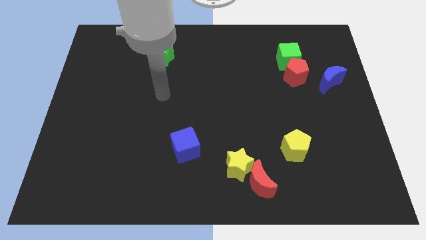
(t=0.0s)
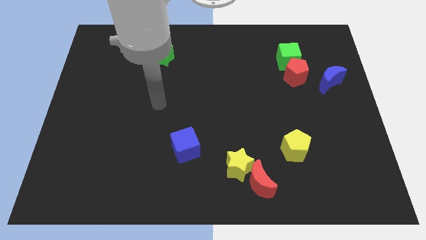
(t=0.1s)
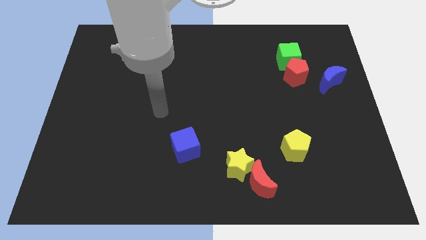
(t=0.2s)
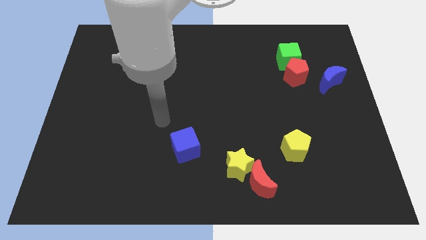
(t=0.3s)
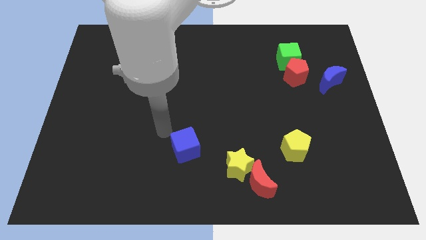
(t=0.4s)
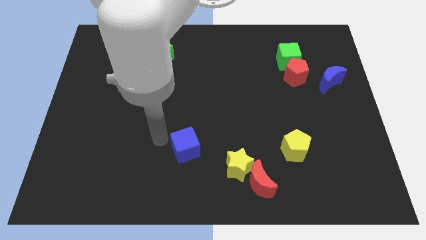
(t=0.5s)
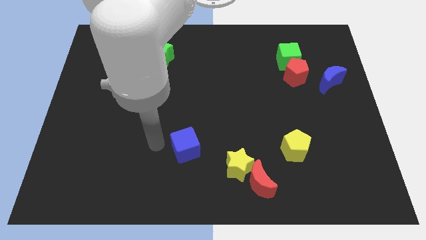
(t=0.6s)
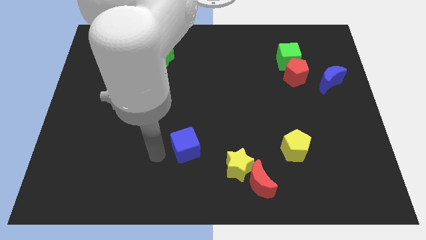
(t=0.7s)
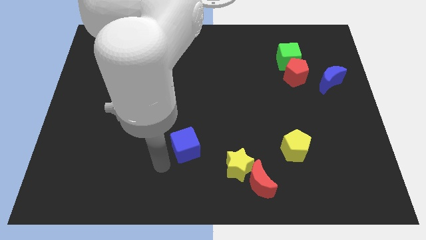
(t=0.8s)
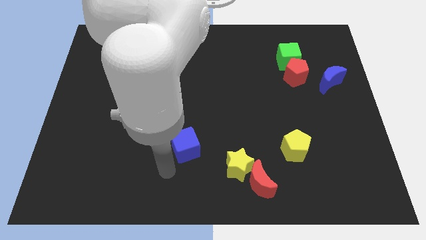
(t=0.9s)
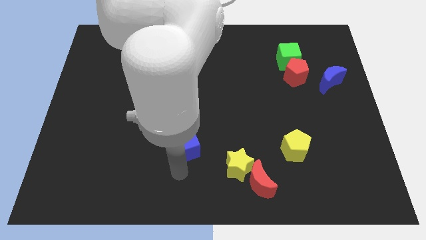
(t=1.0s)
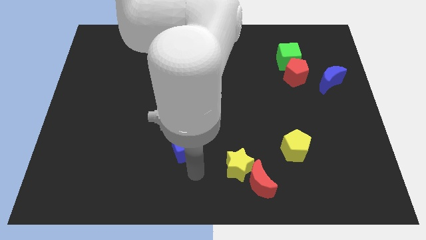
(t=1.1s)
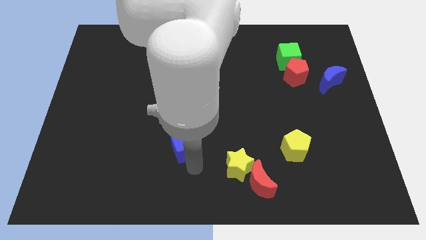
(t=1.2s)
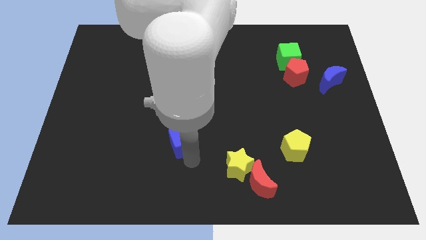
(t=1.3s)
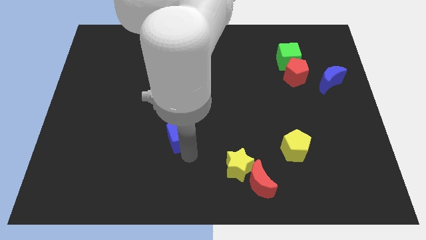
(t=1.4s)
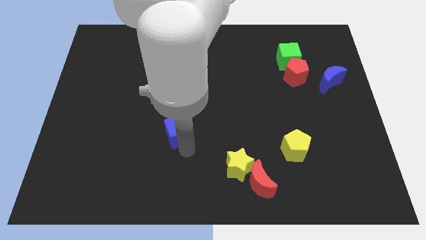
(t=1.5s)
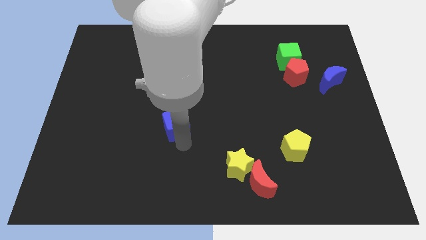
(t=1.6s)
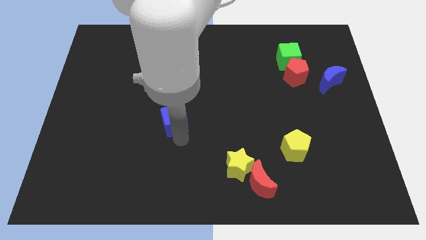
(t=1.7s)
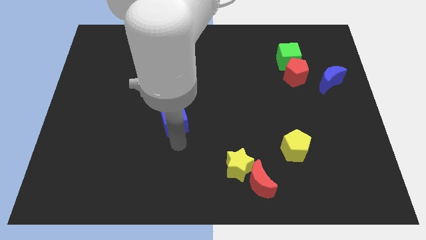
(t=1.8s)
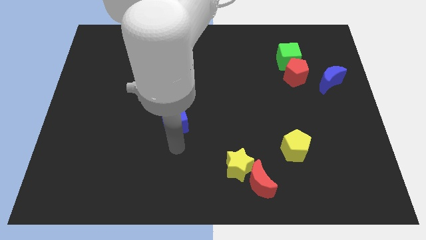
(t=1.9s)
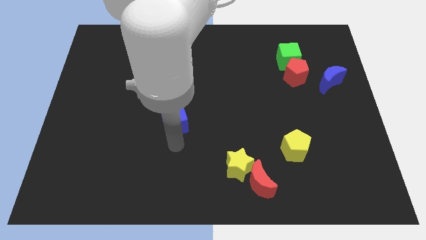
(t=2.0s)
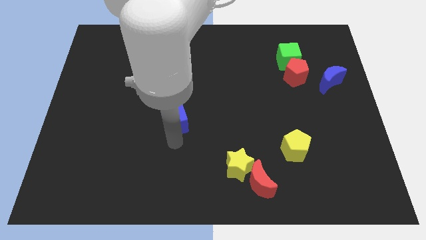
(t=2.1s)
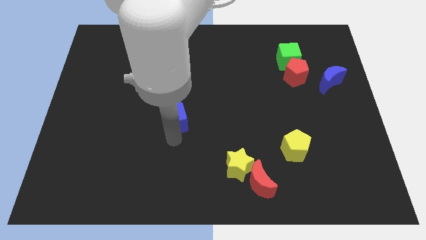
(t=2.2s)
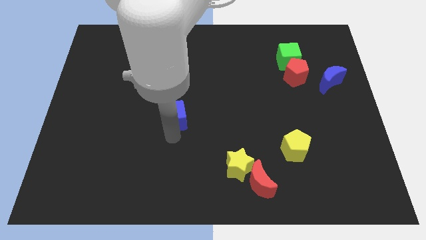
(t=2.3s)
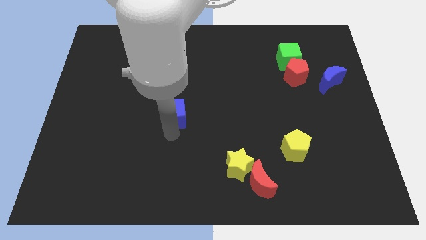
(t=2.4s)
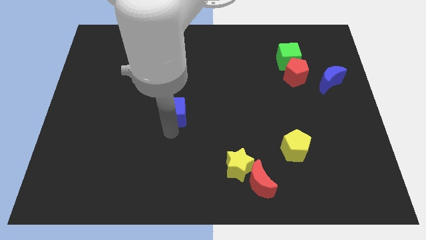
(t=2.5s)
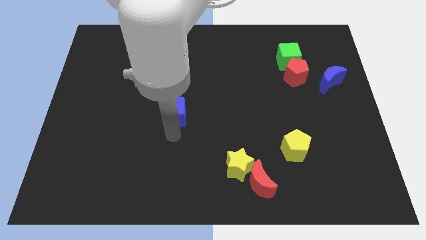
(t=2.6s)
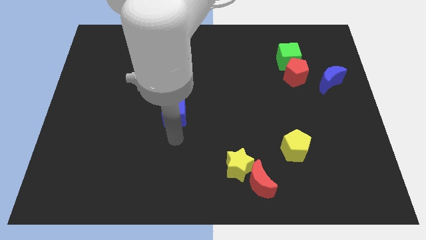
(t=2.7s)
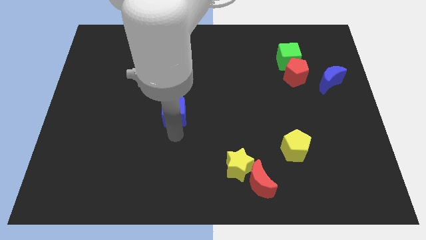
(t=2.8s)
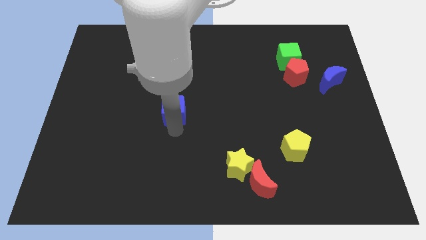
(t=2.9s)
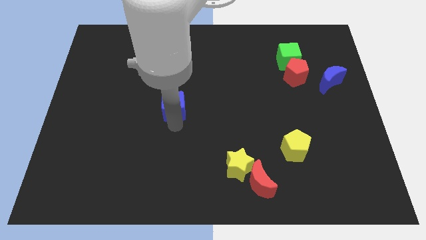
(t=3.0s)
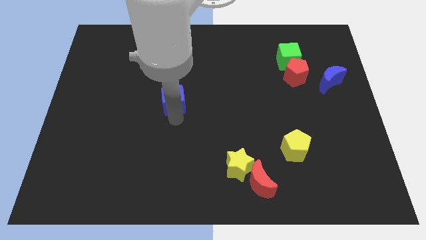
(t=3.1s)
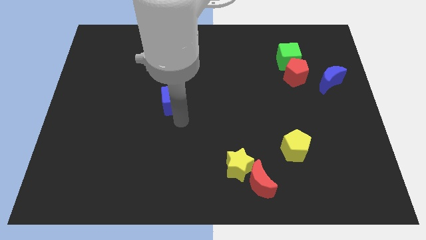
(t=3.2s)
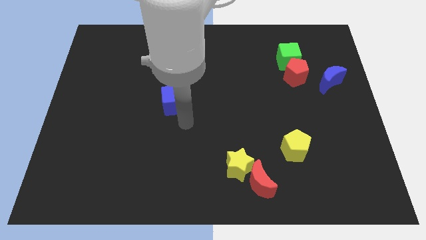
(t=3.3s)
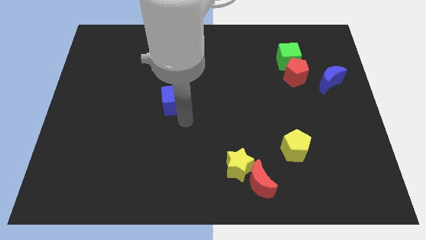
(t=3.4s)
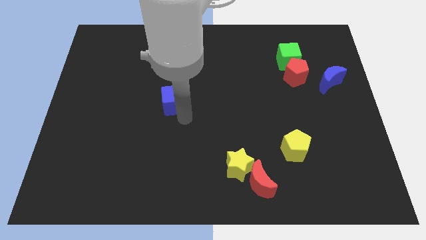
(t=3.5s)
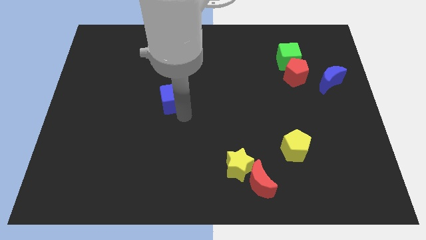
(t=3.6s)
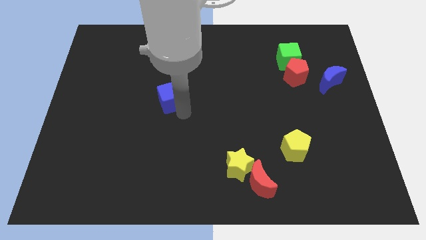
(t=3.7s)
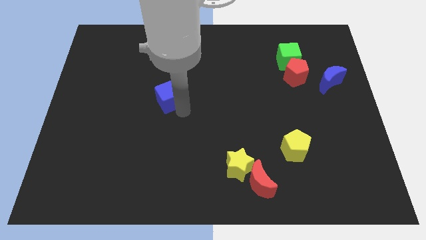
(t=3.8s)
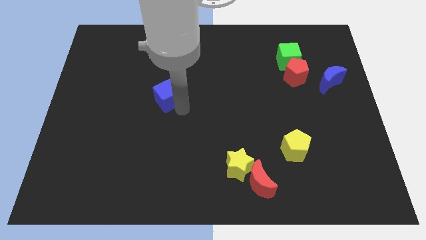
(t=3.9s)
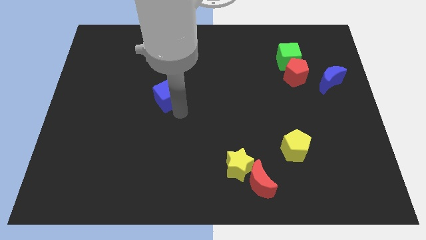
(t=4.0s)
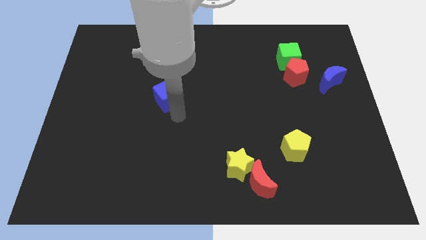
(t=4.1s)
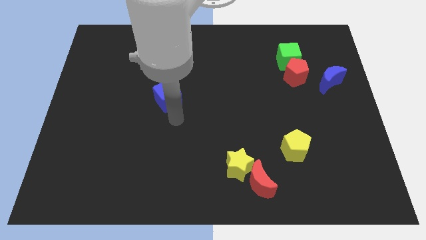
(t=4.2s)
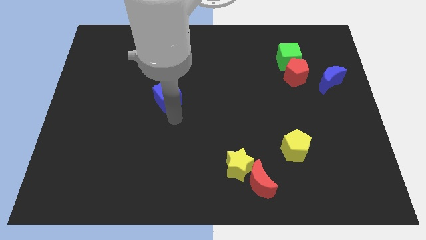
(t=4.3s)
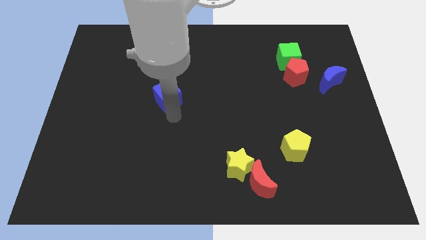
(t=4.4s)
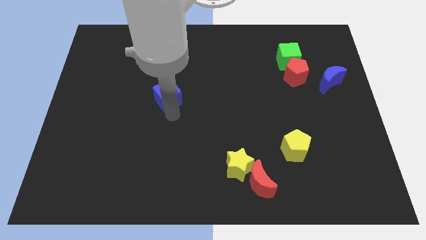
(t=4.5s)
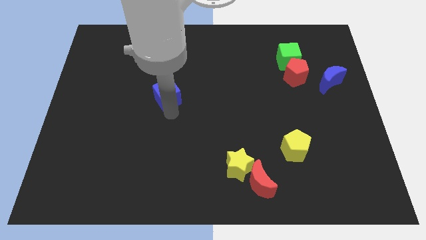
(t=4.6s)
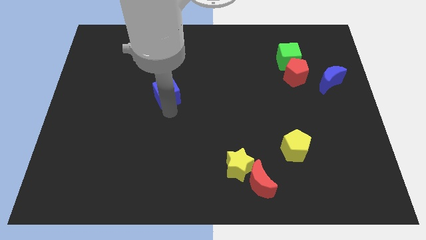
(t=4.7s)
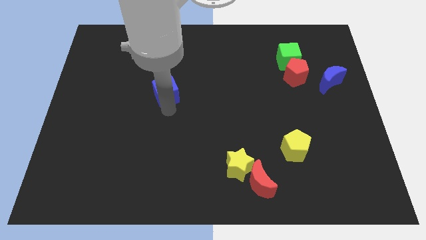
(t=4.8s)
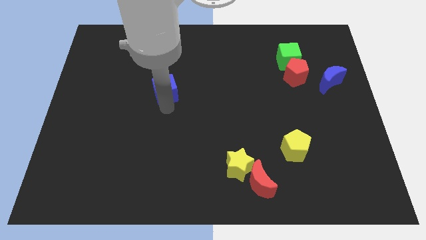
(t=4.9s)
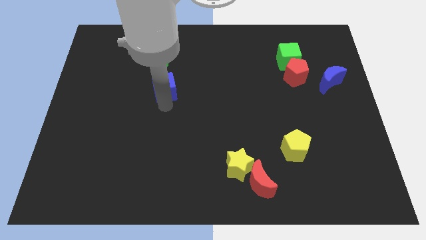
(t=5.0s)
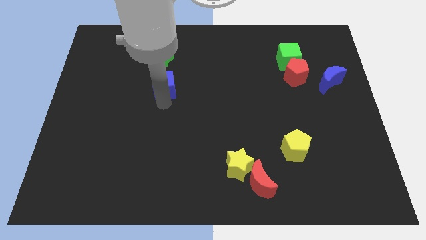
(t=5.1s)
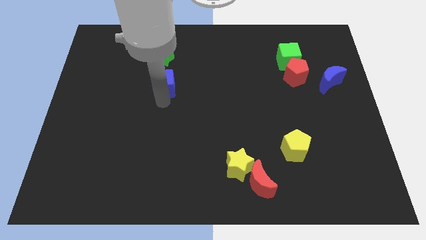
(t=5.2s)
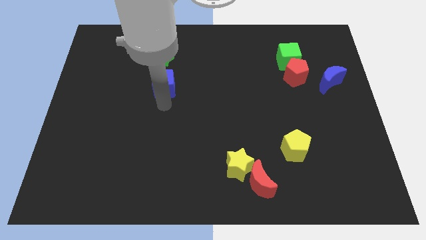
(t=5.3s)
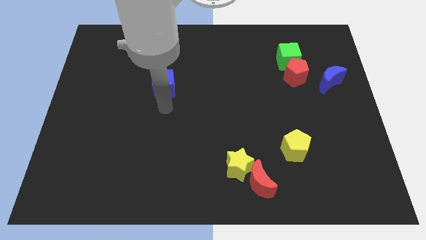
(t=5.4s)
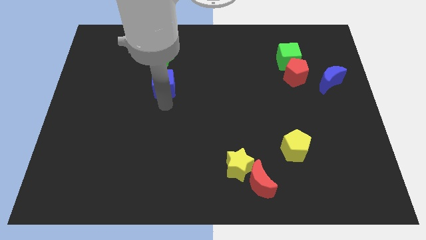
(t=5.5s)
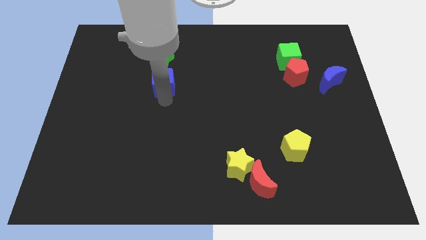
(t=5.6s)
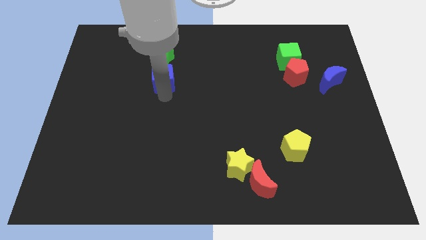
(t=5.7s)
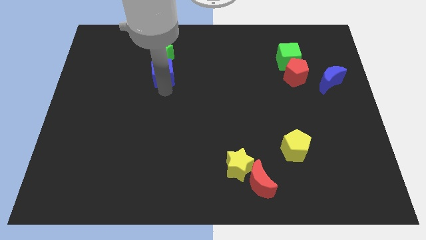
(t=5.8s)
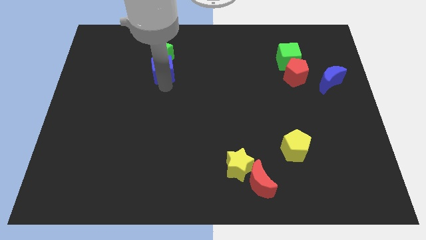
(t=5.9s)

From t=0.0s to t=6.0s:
put the blue cube towards the green star

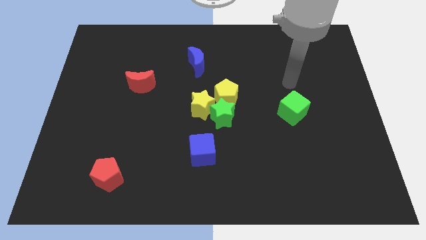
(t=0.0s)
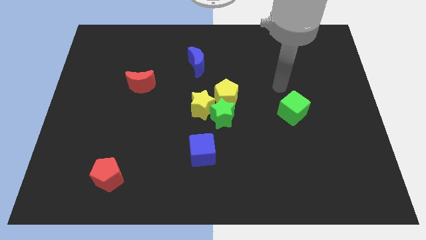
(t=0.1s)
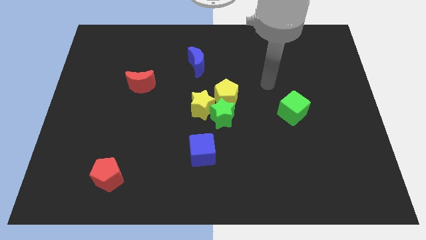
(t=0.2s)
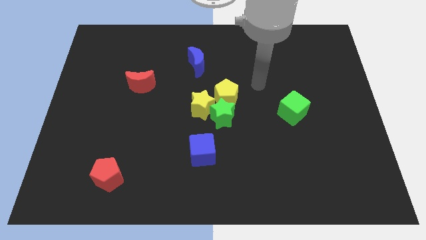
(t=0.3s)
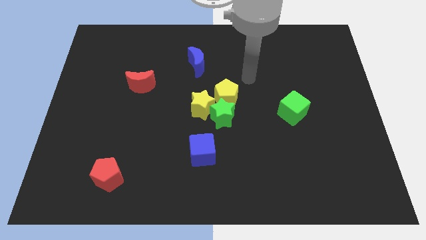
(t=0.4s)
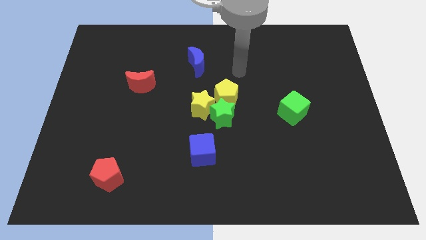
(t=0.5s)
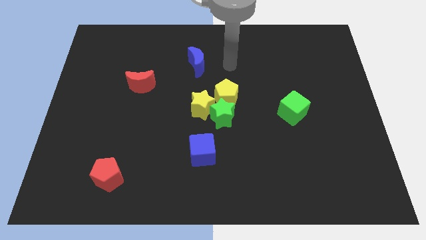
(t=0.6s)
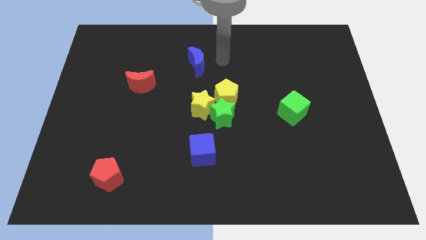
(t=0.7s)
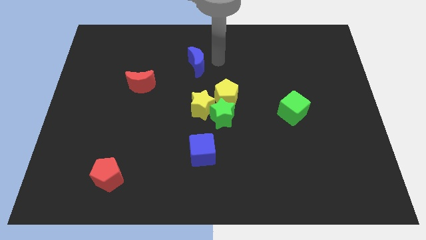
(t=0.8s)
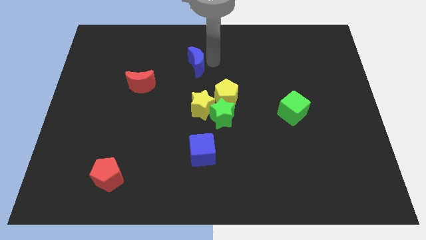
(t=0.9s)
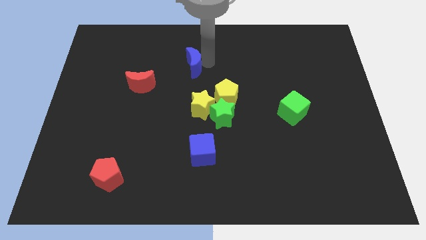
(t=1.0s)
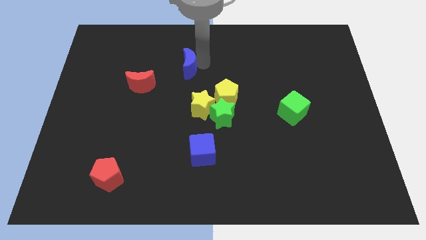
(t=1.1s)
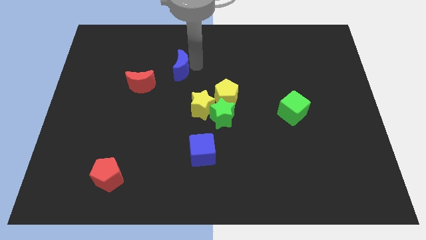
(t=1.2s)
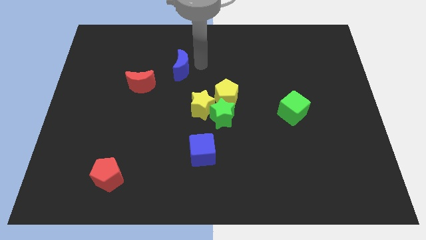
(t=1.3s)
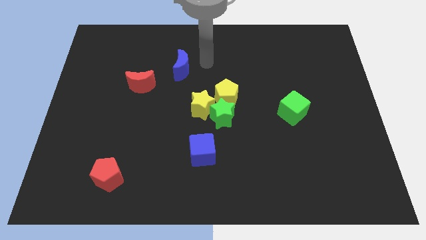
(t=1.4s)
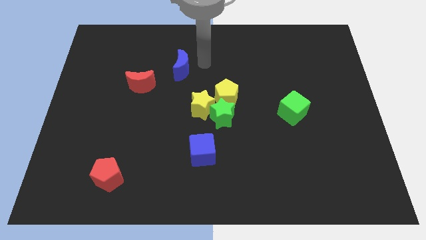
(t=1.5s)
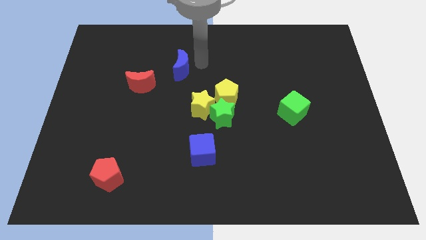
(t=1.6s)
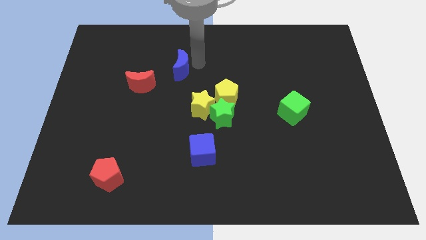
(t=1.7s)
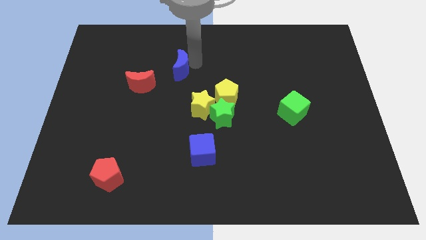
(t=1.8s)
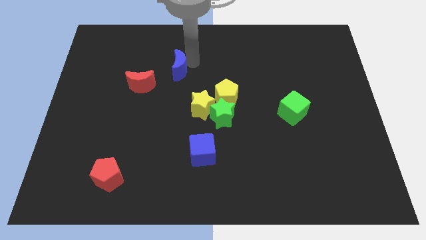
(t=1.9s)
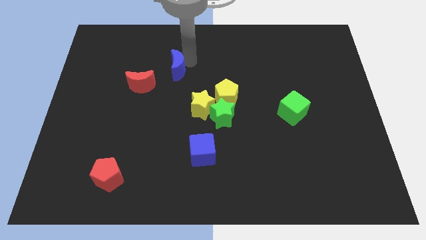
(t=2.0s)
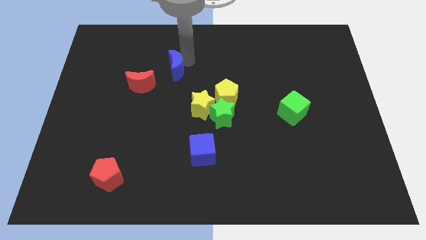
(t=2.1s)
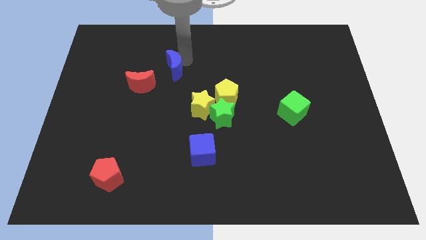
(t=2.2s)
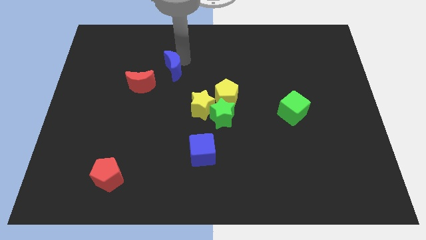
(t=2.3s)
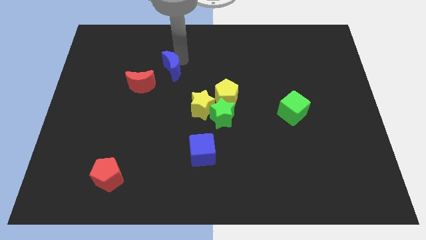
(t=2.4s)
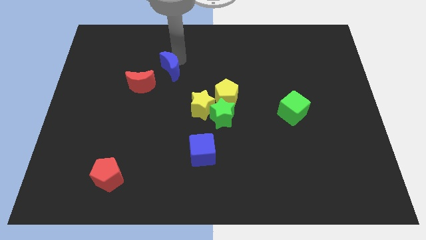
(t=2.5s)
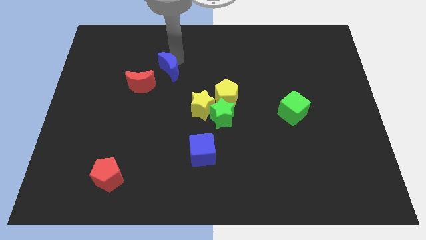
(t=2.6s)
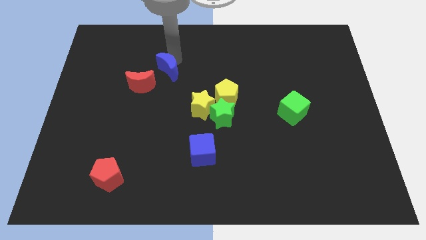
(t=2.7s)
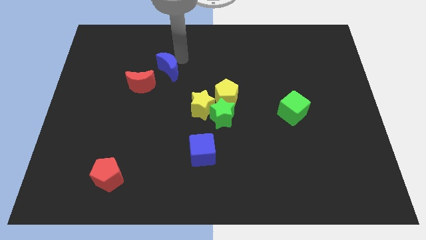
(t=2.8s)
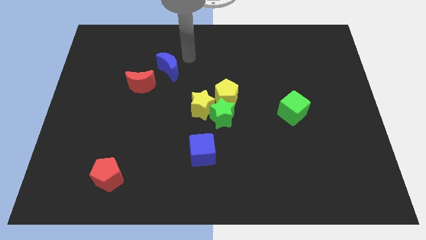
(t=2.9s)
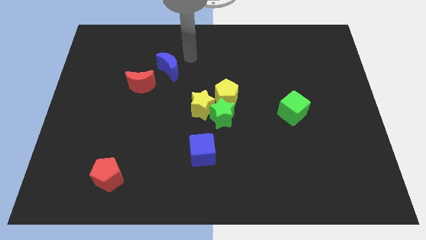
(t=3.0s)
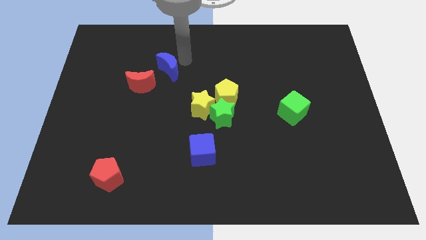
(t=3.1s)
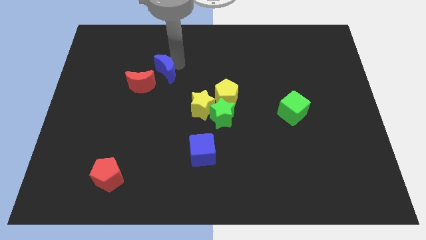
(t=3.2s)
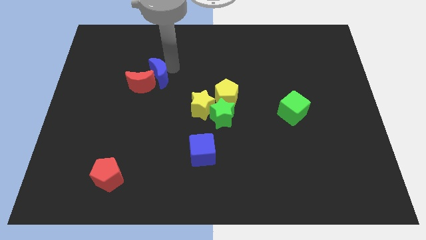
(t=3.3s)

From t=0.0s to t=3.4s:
slide the blue moon close to the red moon
